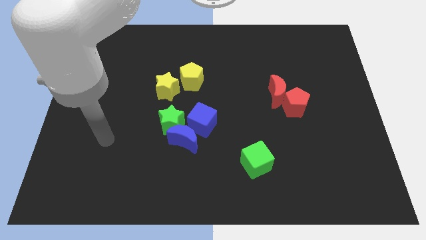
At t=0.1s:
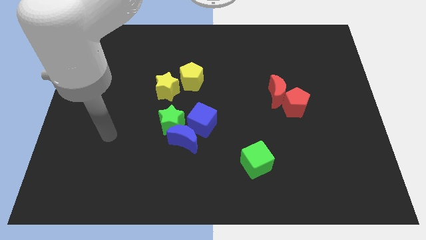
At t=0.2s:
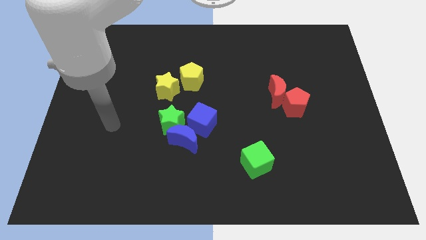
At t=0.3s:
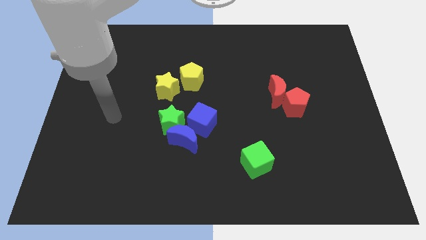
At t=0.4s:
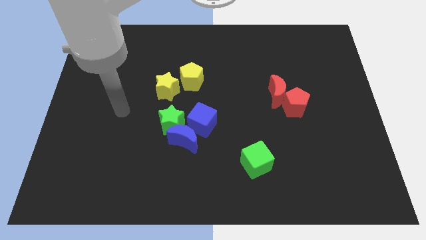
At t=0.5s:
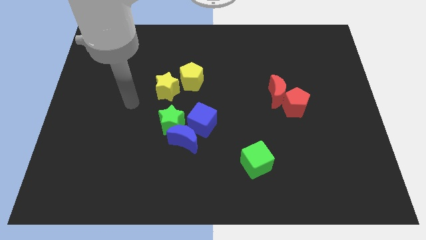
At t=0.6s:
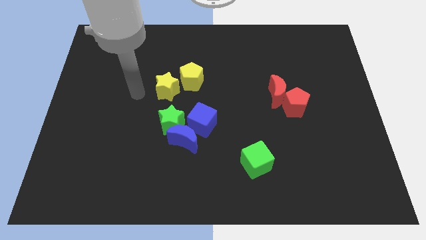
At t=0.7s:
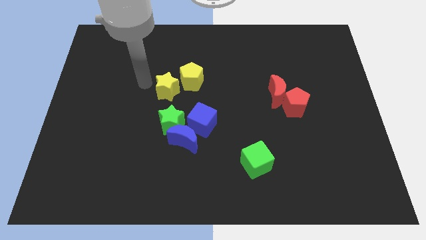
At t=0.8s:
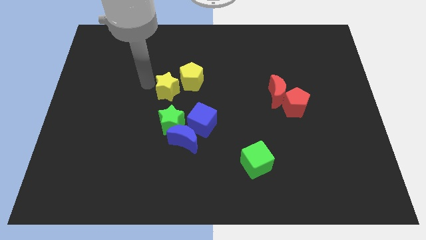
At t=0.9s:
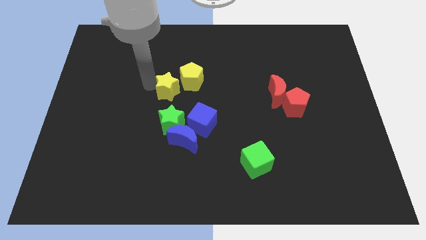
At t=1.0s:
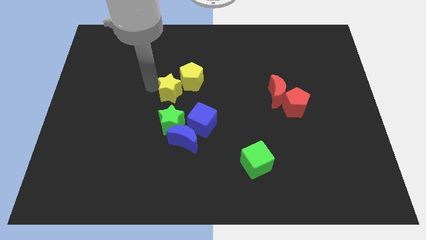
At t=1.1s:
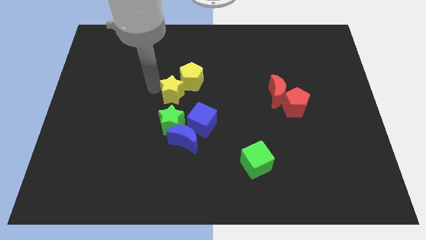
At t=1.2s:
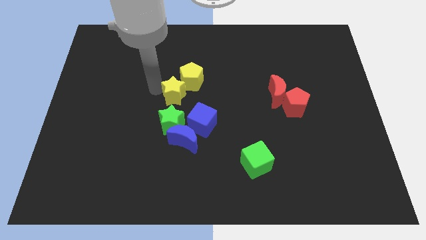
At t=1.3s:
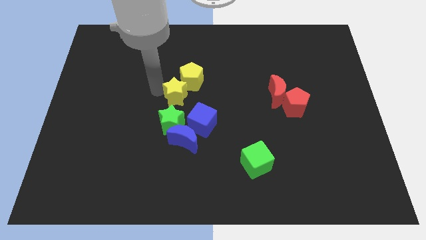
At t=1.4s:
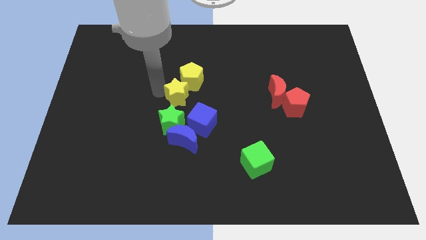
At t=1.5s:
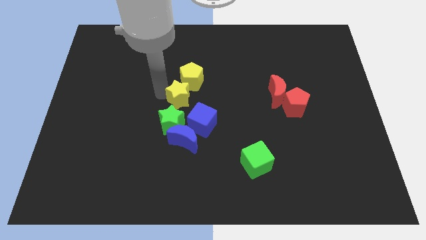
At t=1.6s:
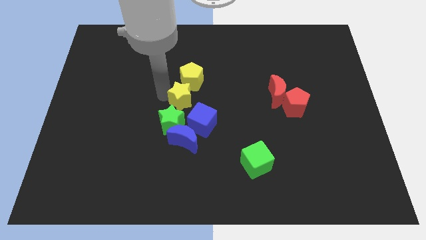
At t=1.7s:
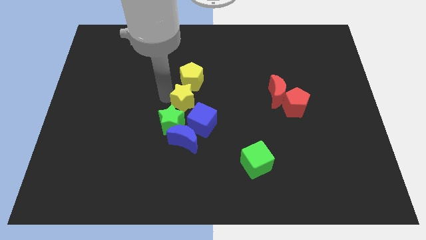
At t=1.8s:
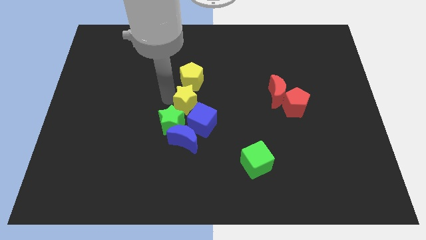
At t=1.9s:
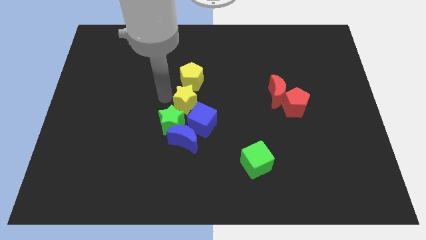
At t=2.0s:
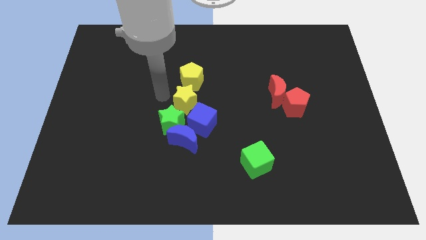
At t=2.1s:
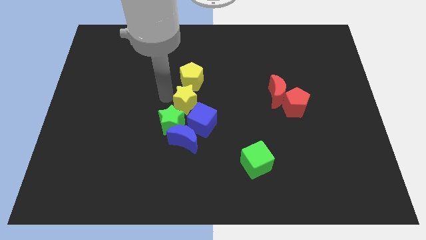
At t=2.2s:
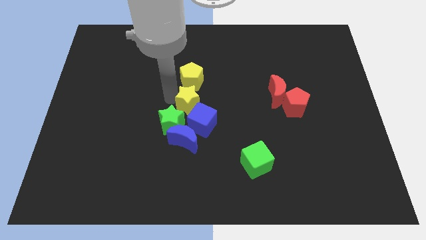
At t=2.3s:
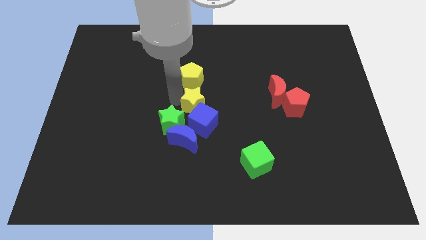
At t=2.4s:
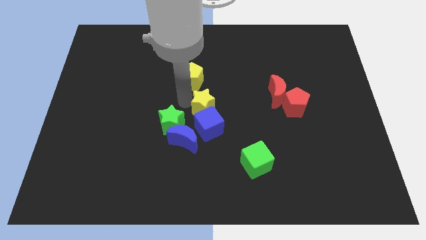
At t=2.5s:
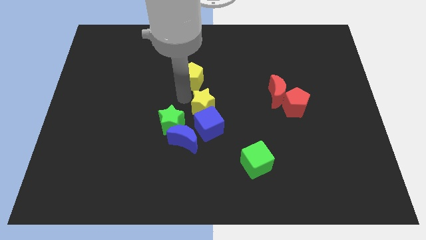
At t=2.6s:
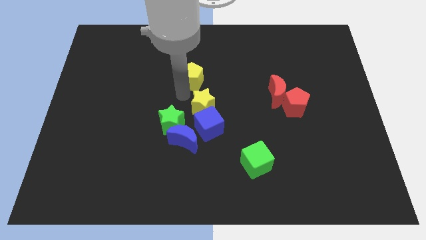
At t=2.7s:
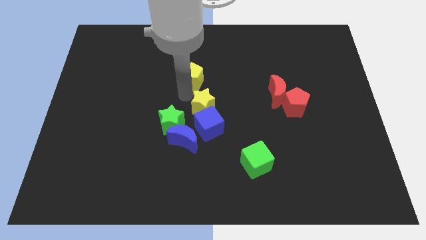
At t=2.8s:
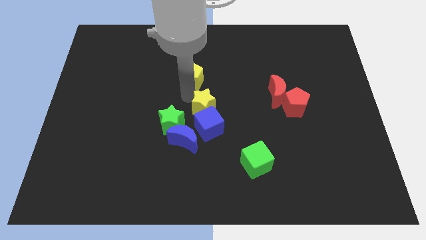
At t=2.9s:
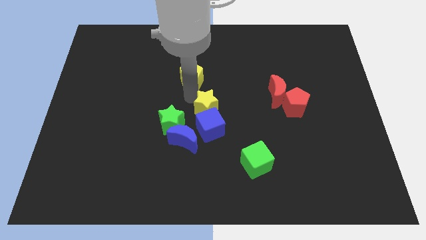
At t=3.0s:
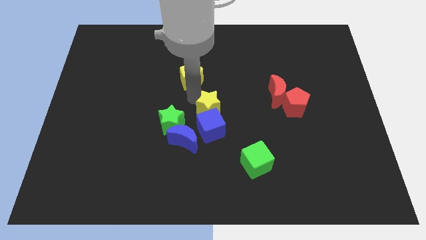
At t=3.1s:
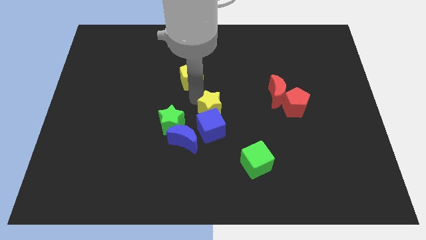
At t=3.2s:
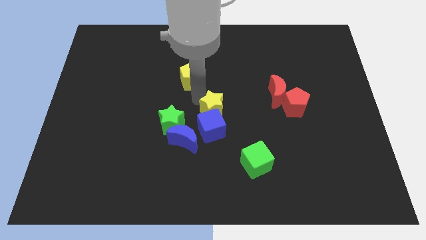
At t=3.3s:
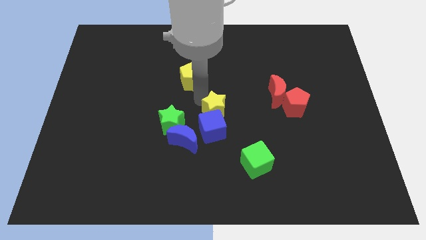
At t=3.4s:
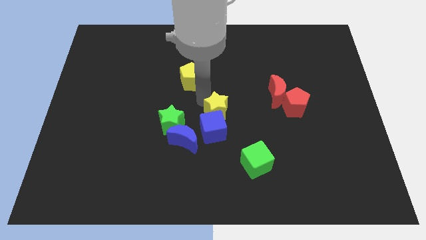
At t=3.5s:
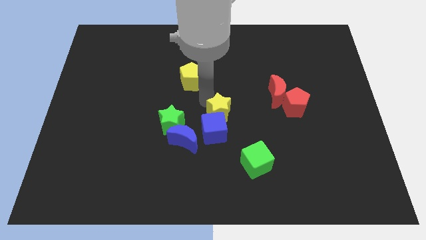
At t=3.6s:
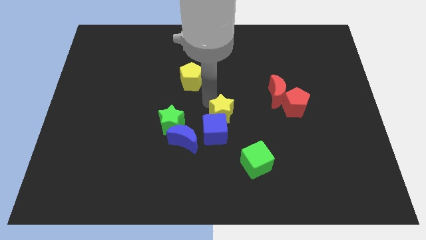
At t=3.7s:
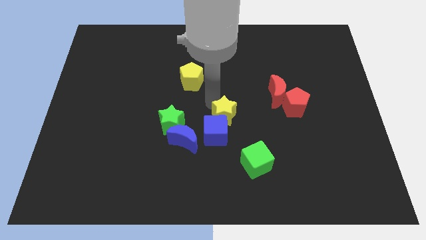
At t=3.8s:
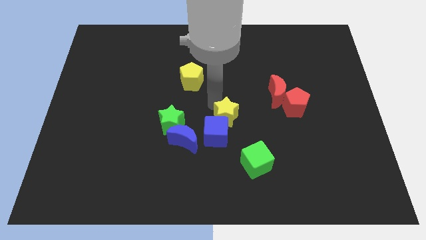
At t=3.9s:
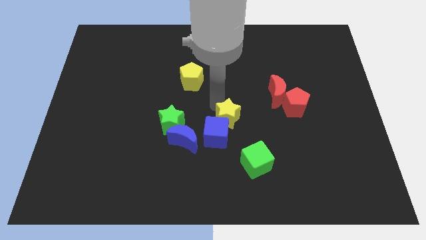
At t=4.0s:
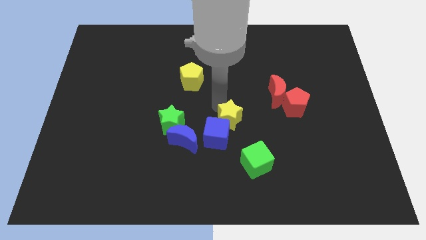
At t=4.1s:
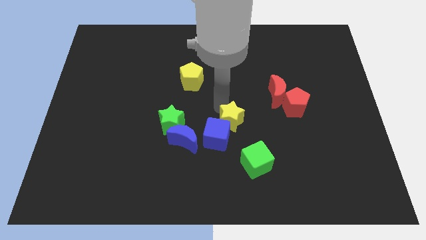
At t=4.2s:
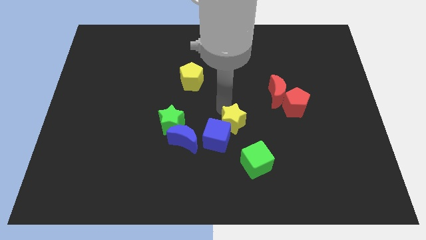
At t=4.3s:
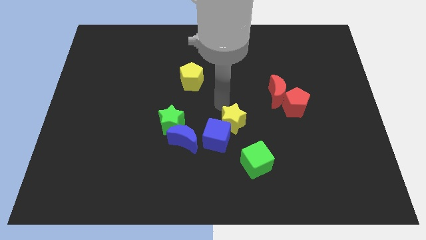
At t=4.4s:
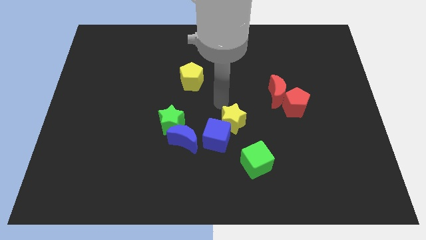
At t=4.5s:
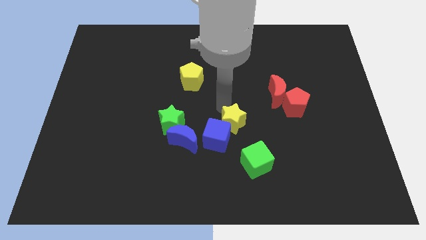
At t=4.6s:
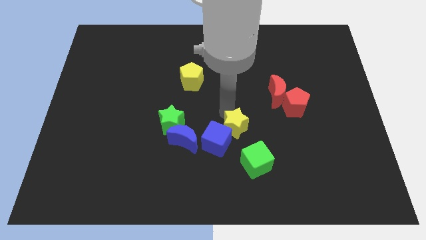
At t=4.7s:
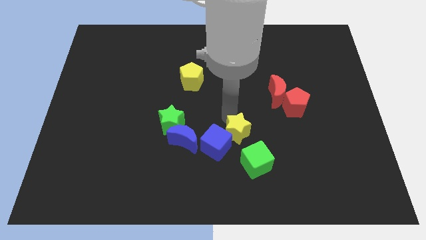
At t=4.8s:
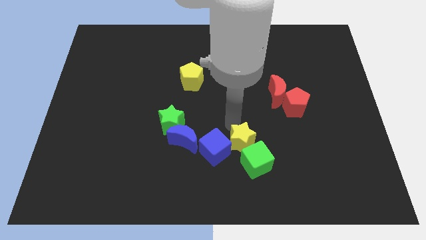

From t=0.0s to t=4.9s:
move the yellow star to the green cube

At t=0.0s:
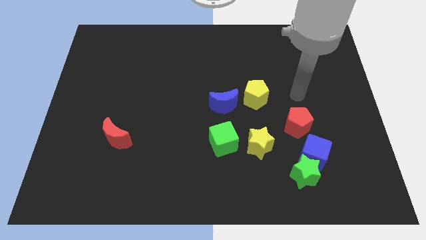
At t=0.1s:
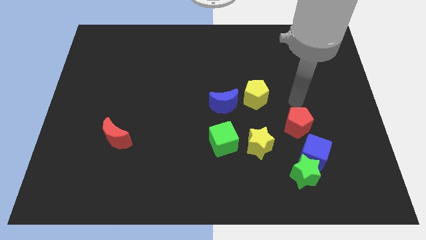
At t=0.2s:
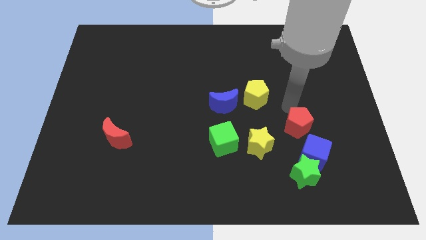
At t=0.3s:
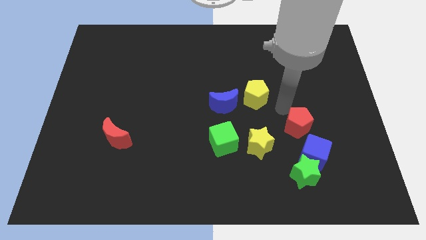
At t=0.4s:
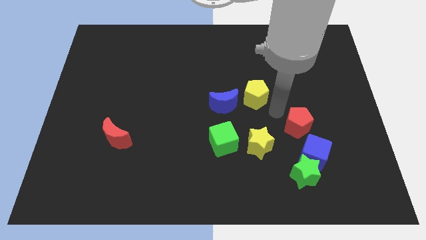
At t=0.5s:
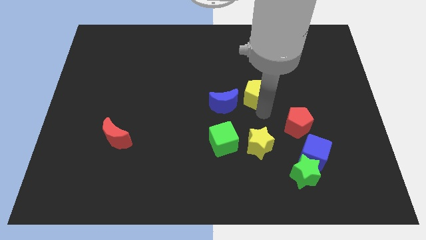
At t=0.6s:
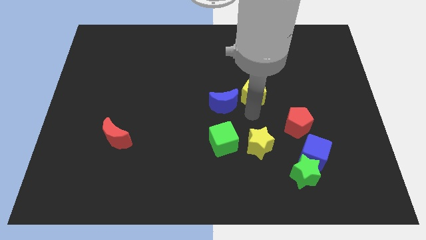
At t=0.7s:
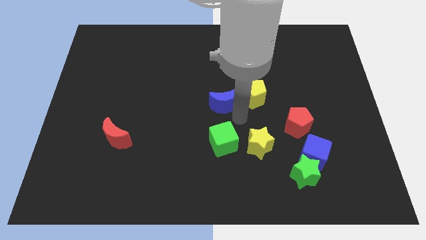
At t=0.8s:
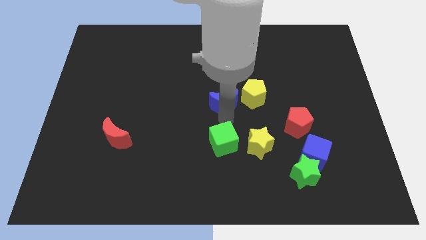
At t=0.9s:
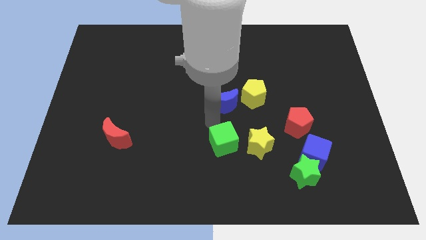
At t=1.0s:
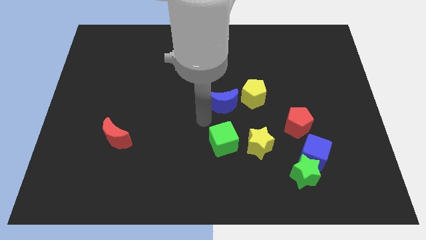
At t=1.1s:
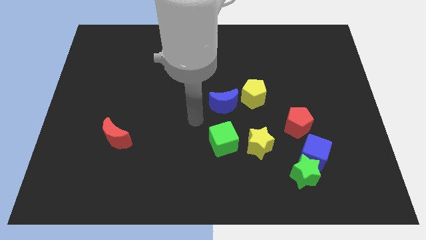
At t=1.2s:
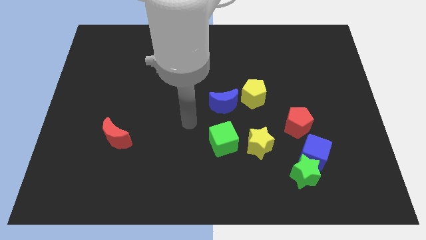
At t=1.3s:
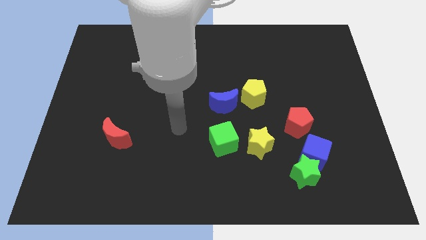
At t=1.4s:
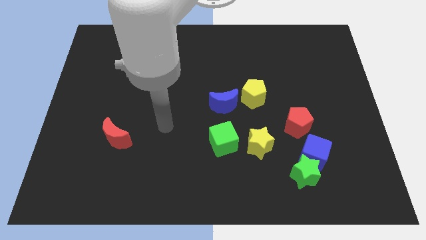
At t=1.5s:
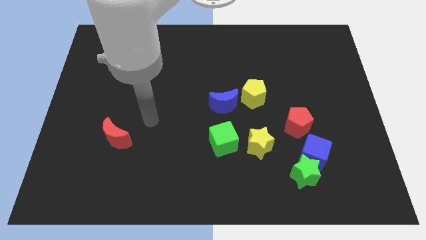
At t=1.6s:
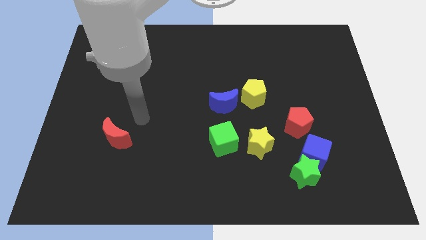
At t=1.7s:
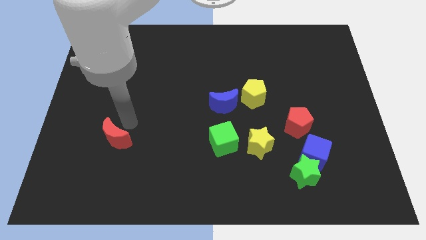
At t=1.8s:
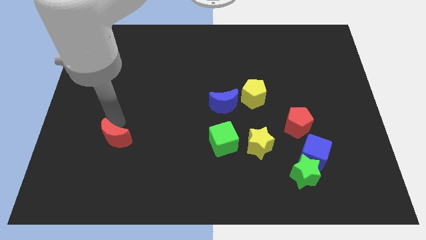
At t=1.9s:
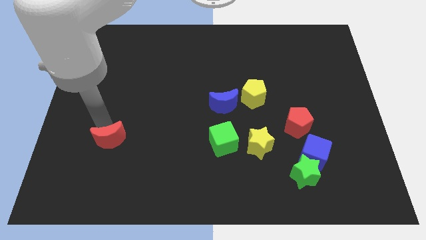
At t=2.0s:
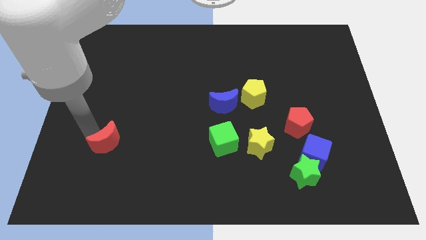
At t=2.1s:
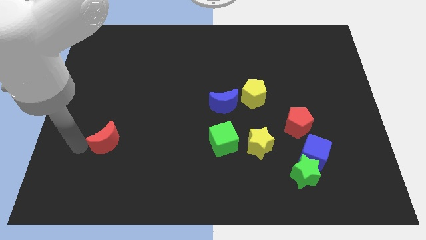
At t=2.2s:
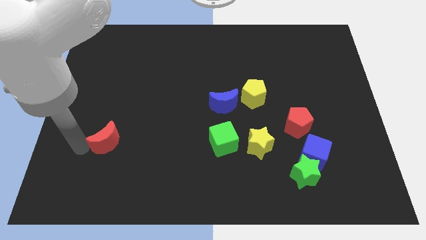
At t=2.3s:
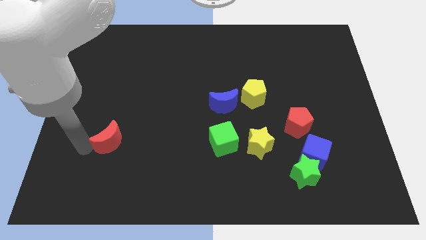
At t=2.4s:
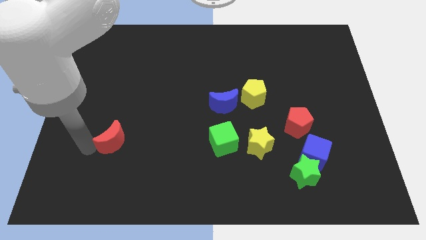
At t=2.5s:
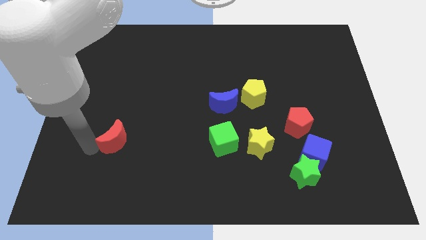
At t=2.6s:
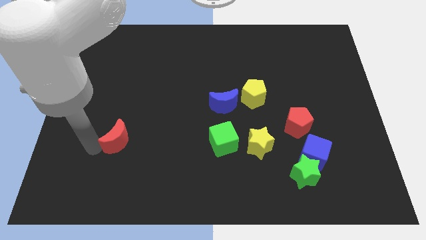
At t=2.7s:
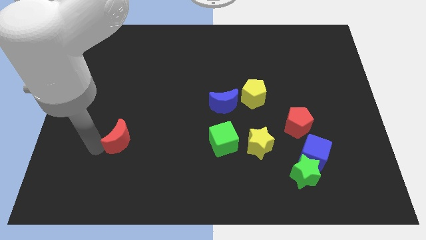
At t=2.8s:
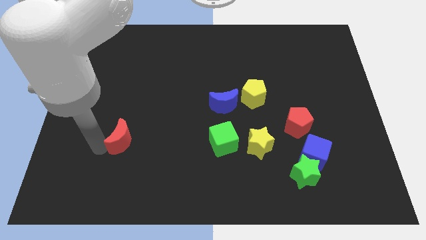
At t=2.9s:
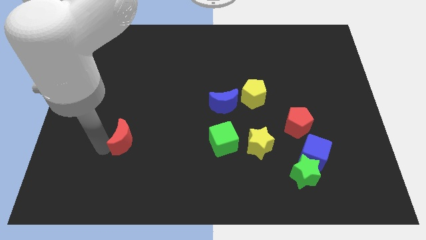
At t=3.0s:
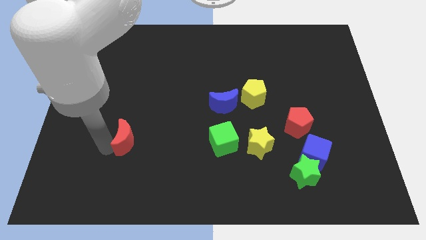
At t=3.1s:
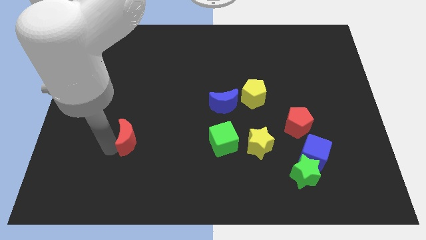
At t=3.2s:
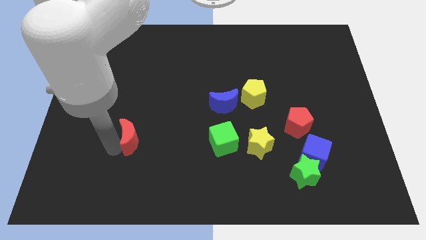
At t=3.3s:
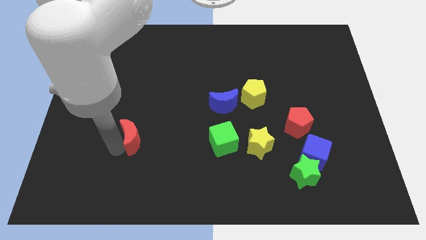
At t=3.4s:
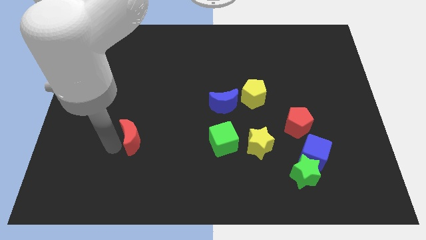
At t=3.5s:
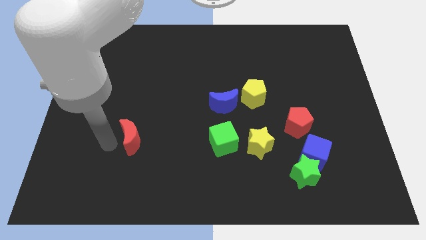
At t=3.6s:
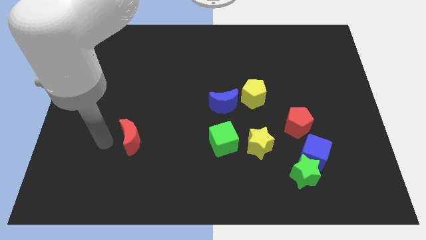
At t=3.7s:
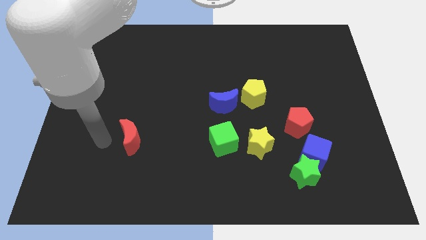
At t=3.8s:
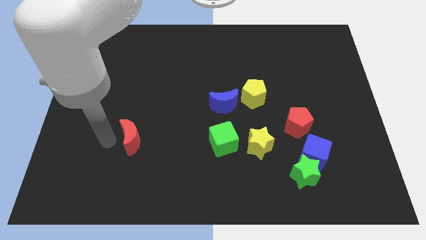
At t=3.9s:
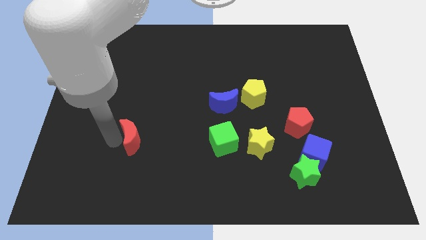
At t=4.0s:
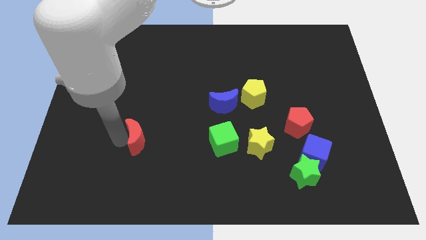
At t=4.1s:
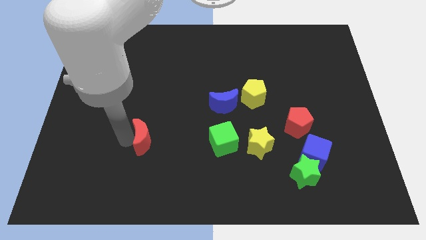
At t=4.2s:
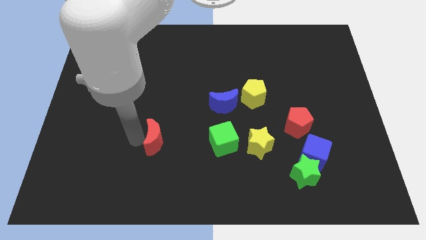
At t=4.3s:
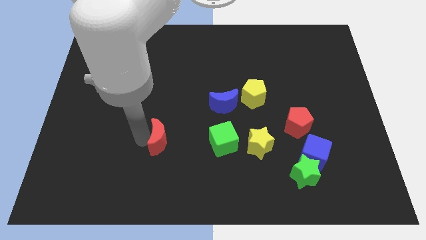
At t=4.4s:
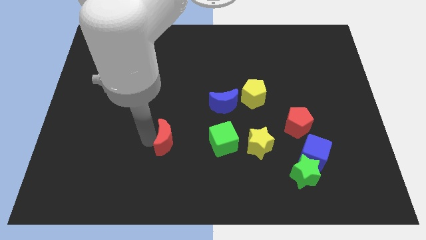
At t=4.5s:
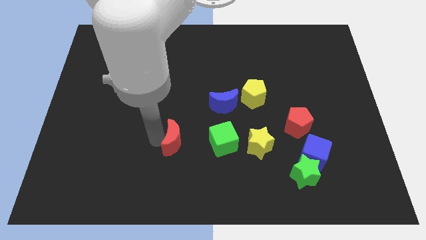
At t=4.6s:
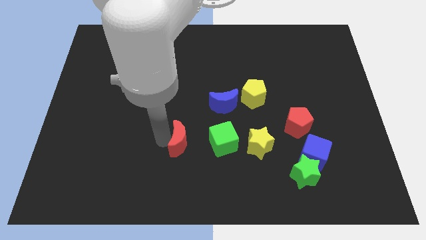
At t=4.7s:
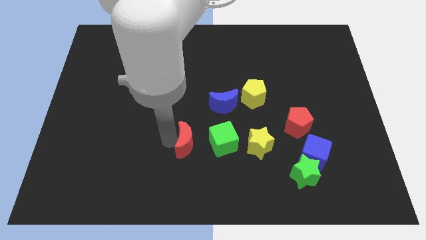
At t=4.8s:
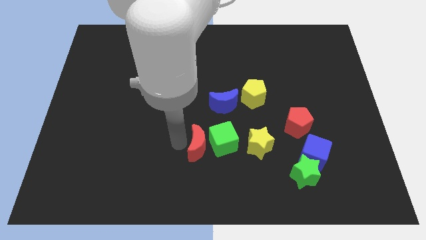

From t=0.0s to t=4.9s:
push the red moon towards the green cube
